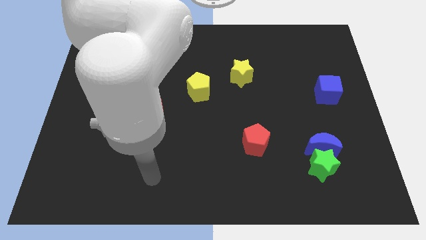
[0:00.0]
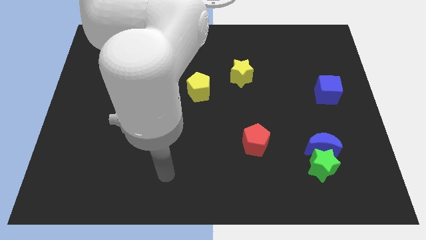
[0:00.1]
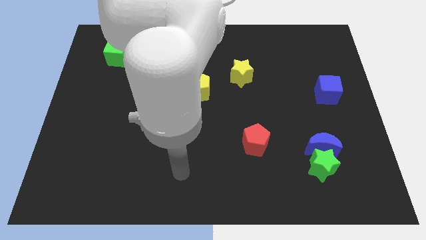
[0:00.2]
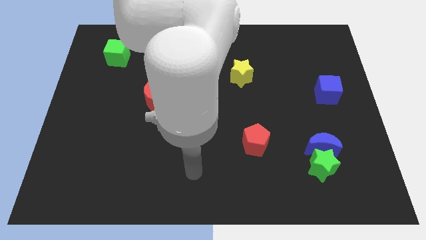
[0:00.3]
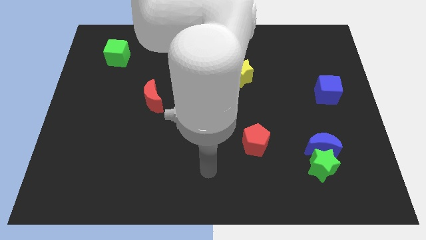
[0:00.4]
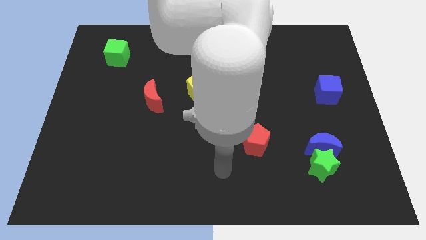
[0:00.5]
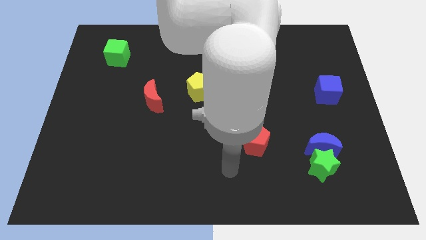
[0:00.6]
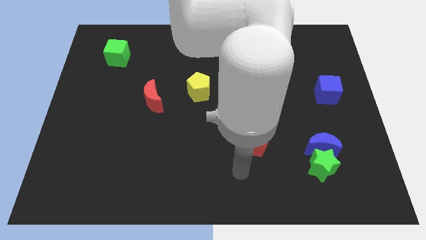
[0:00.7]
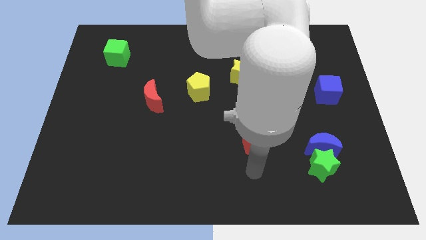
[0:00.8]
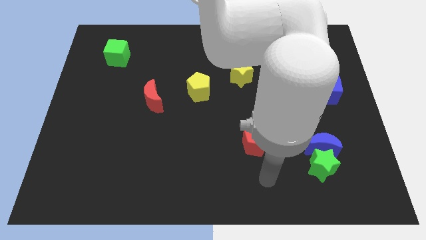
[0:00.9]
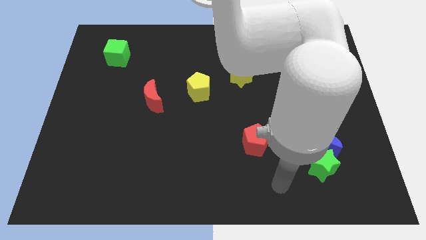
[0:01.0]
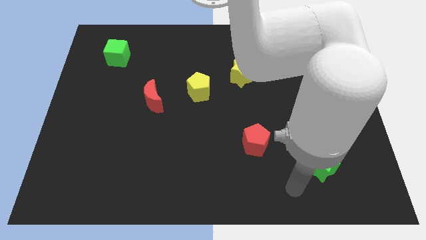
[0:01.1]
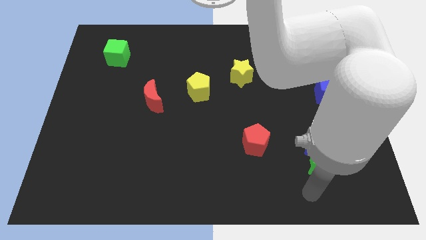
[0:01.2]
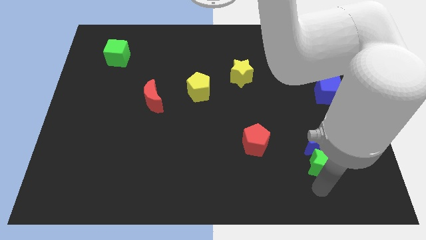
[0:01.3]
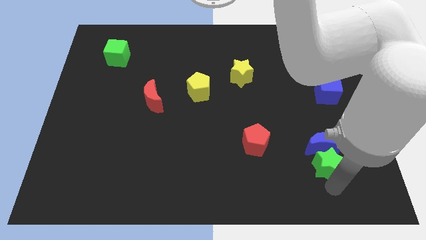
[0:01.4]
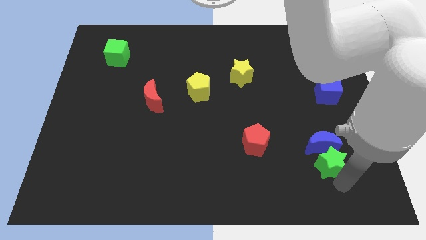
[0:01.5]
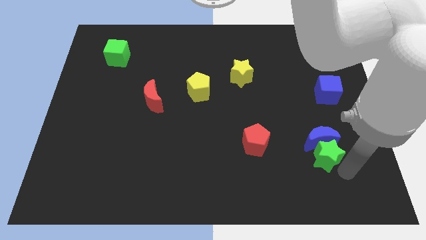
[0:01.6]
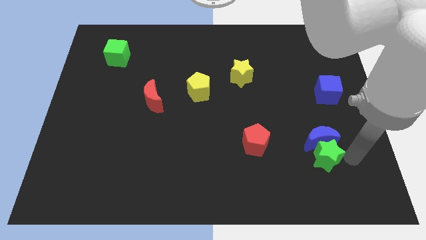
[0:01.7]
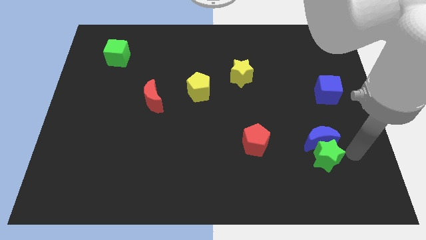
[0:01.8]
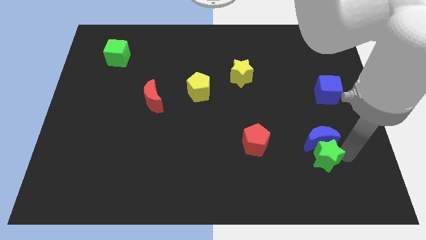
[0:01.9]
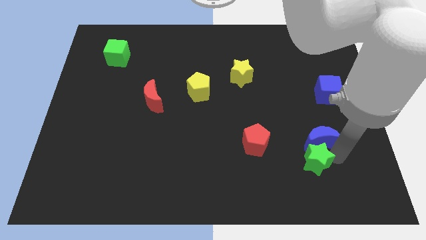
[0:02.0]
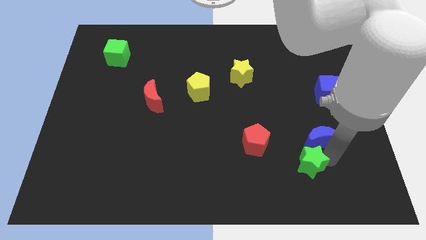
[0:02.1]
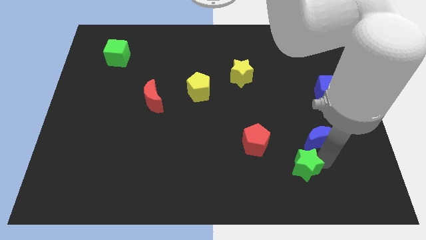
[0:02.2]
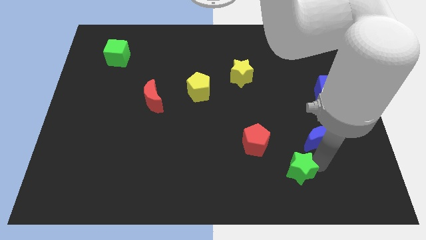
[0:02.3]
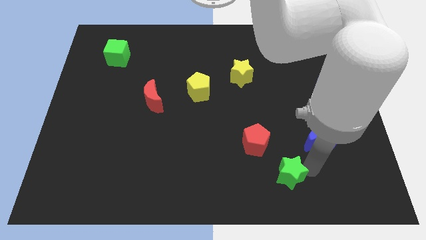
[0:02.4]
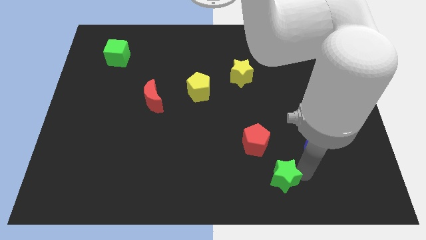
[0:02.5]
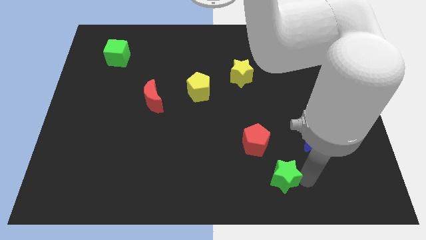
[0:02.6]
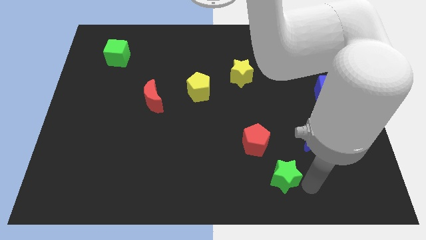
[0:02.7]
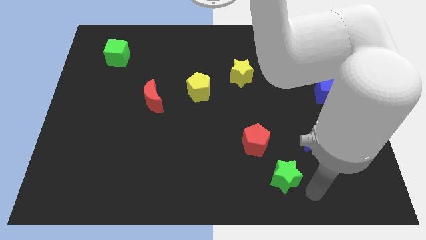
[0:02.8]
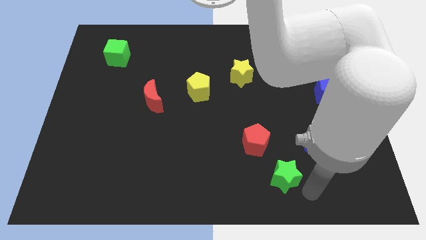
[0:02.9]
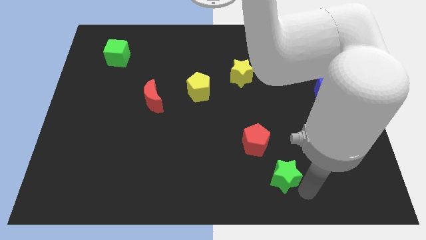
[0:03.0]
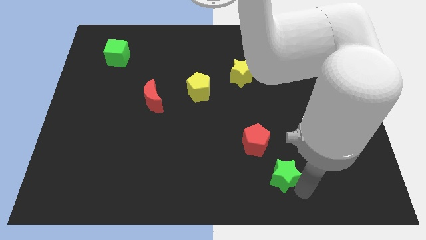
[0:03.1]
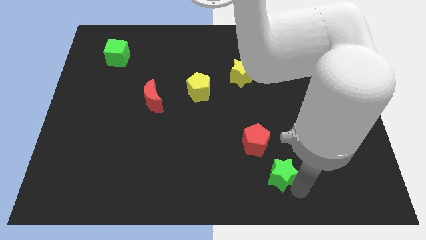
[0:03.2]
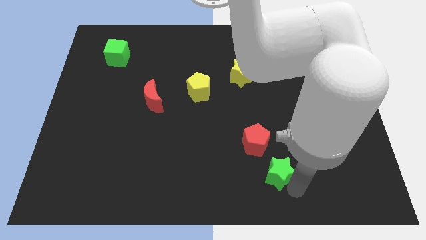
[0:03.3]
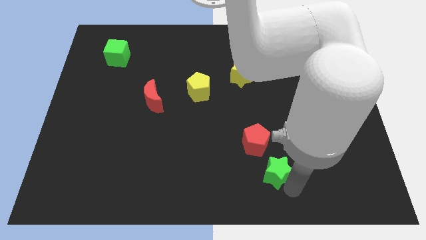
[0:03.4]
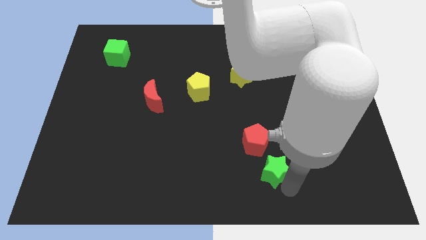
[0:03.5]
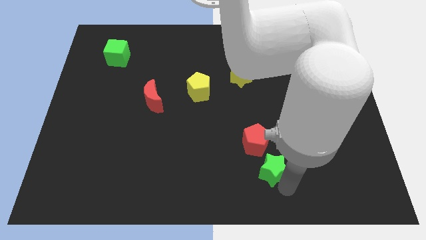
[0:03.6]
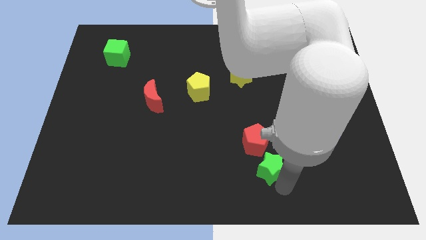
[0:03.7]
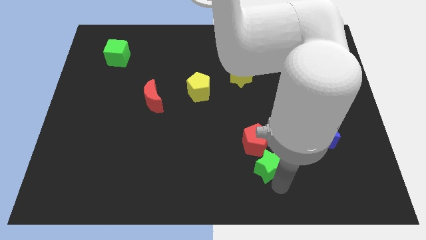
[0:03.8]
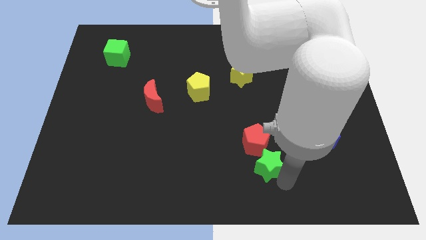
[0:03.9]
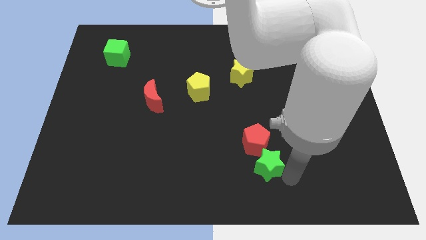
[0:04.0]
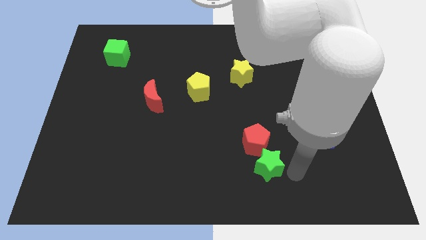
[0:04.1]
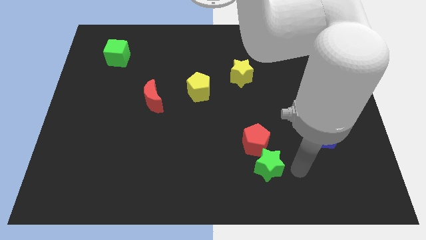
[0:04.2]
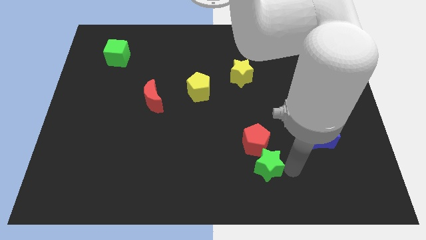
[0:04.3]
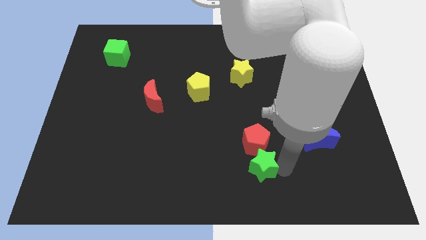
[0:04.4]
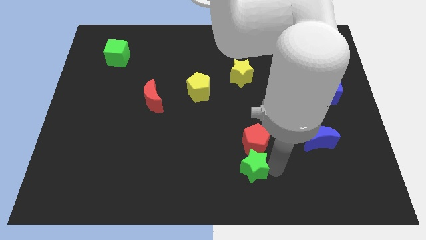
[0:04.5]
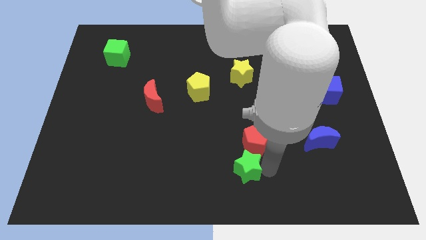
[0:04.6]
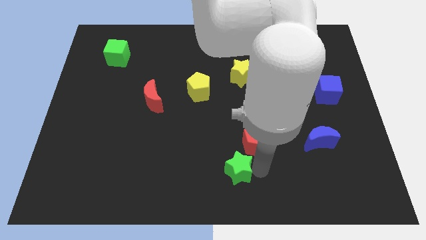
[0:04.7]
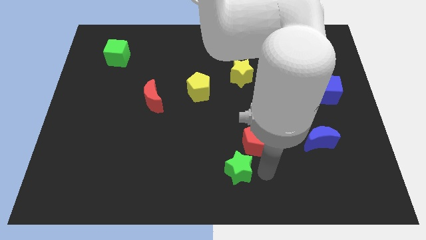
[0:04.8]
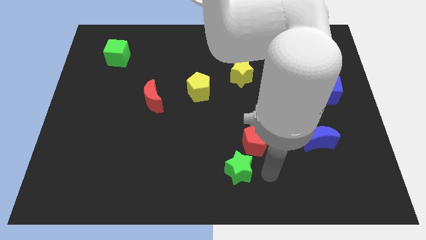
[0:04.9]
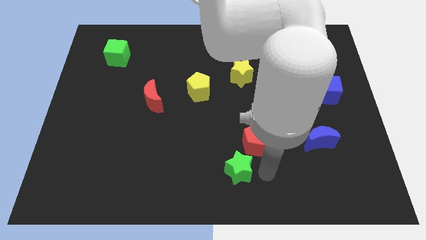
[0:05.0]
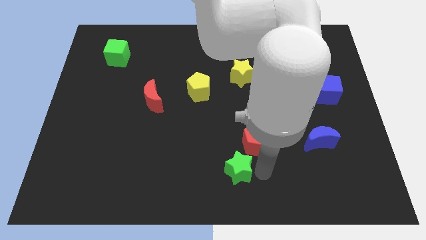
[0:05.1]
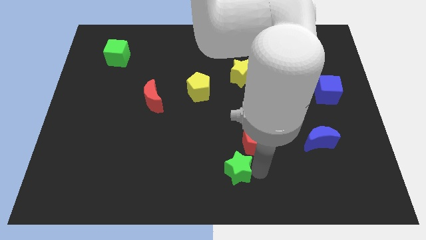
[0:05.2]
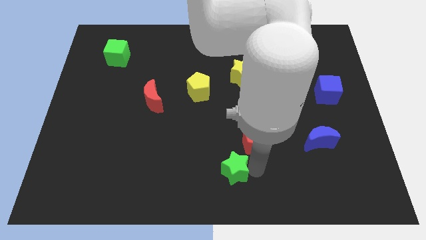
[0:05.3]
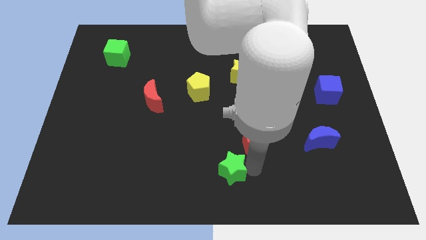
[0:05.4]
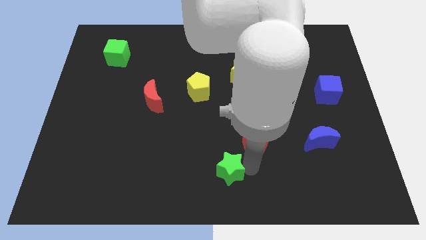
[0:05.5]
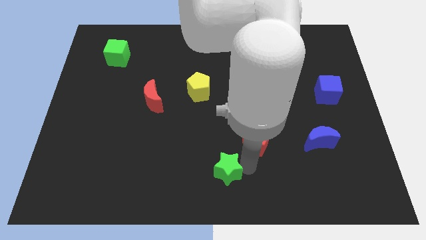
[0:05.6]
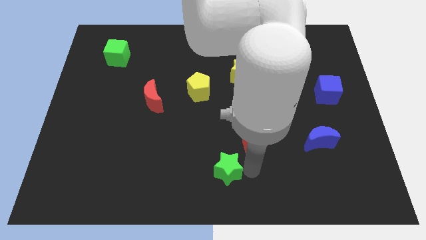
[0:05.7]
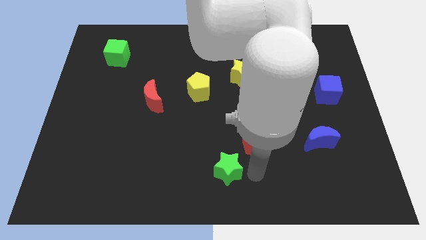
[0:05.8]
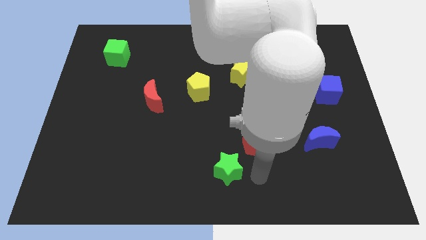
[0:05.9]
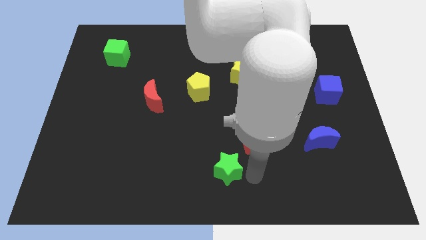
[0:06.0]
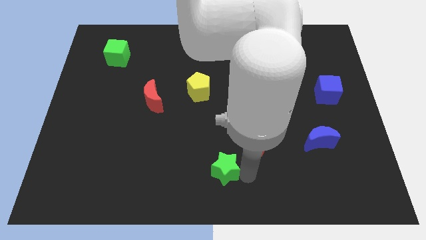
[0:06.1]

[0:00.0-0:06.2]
slide the green star to the left

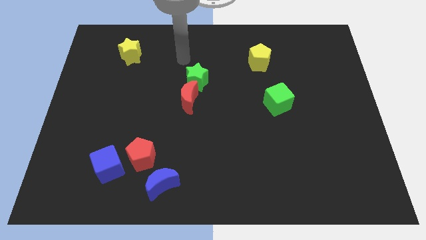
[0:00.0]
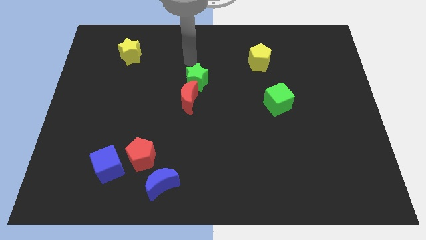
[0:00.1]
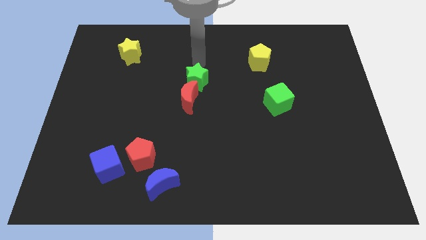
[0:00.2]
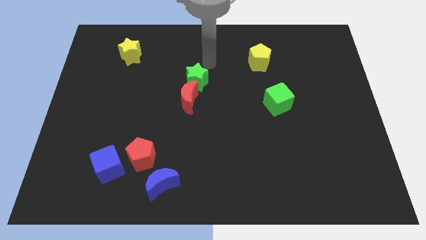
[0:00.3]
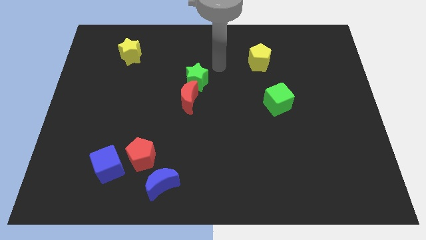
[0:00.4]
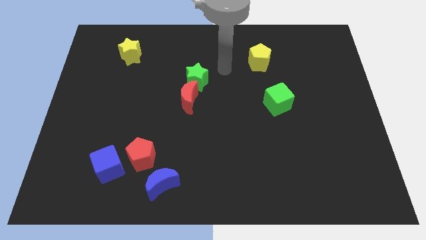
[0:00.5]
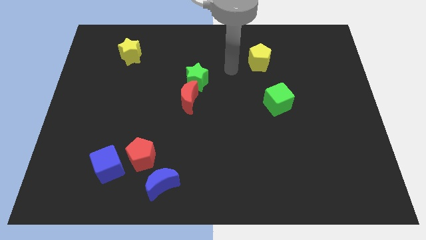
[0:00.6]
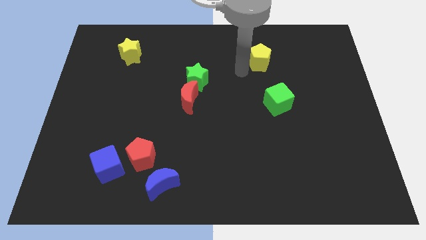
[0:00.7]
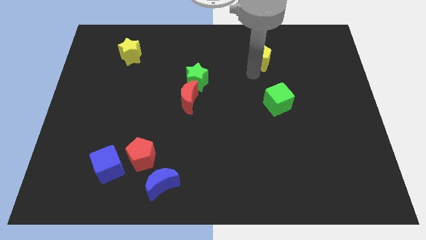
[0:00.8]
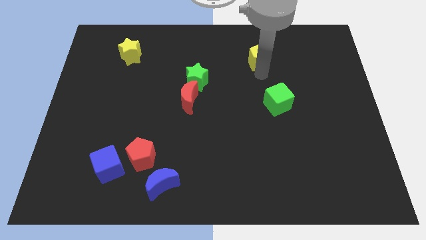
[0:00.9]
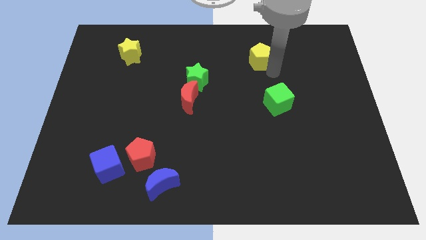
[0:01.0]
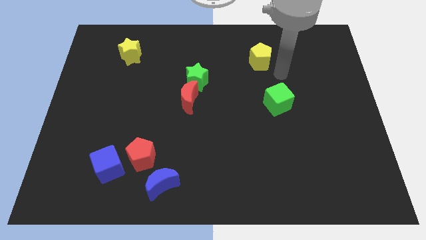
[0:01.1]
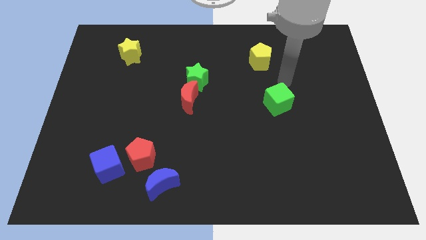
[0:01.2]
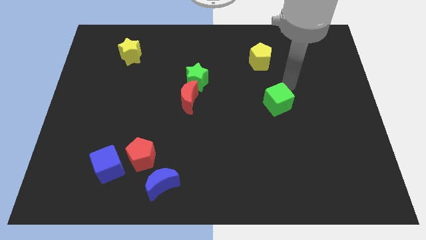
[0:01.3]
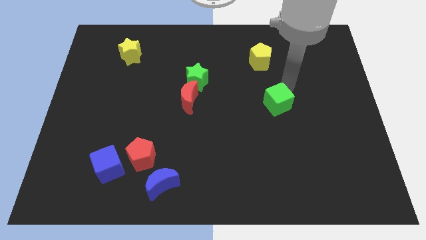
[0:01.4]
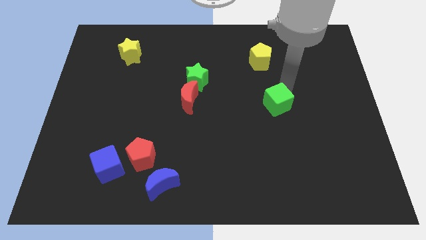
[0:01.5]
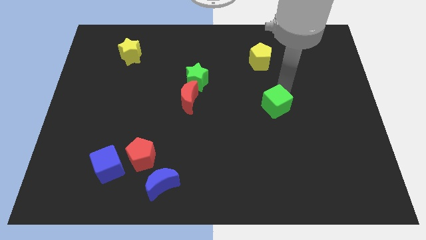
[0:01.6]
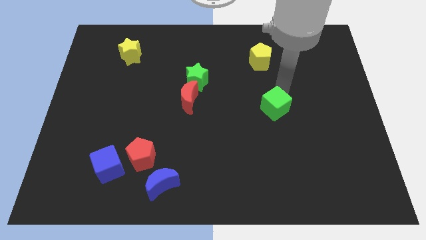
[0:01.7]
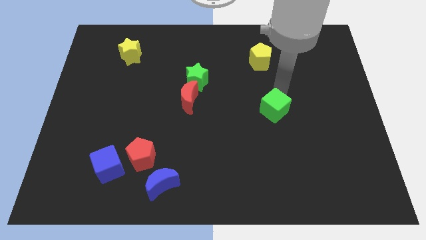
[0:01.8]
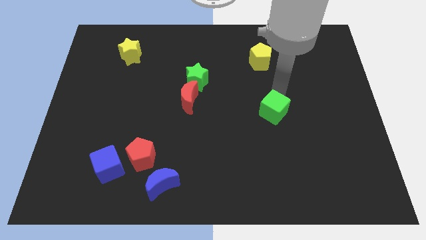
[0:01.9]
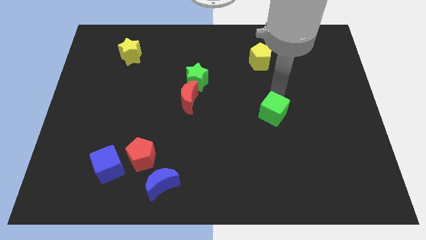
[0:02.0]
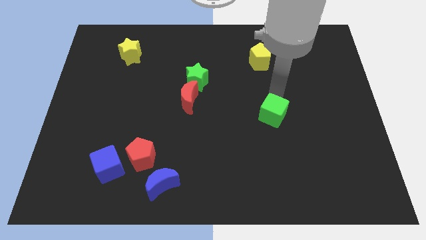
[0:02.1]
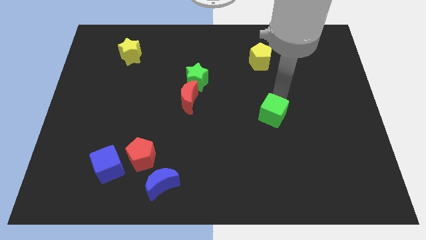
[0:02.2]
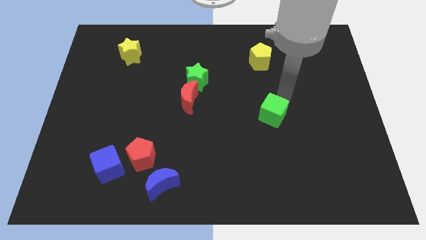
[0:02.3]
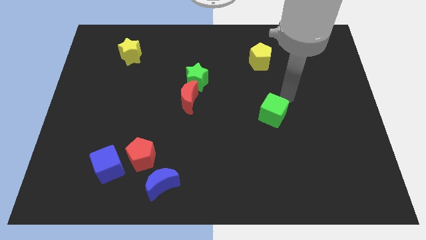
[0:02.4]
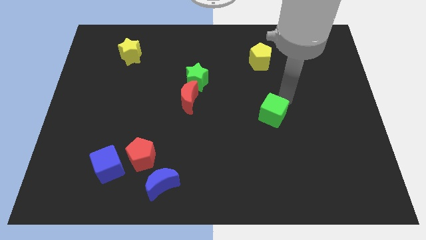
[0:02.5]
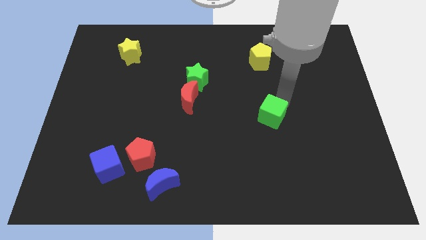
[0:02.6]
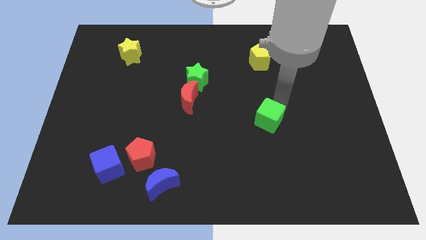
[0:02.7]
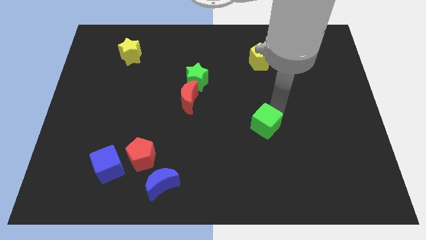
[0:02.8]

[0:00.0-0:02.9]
move the green cube downwards and left diagonally a little
